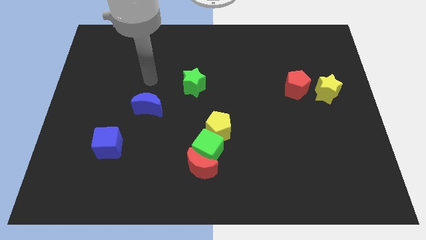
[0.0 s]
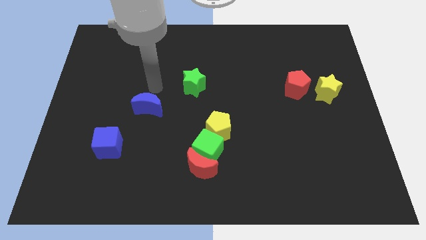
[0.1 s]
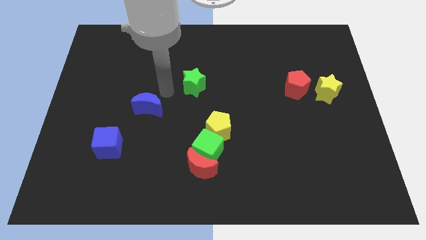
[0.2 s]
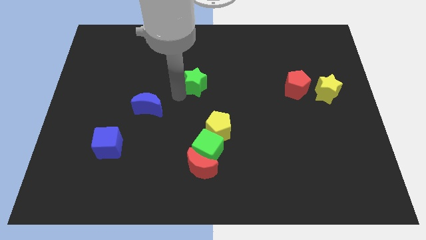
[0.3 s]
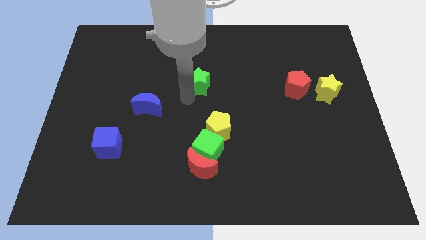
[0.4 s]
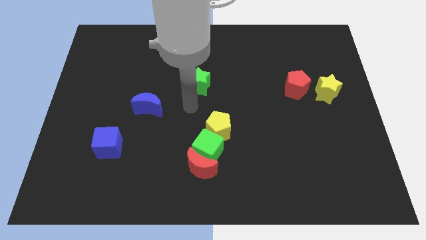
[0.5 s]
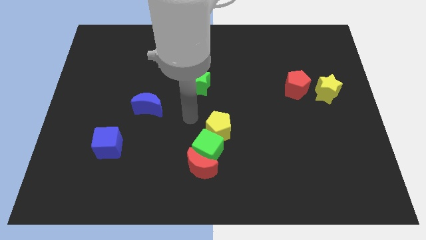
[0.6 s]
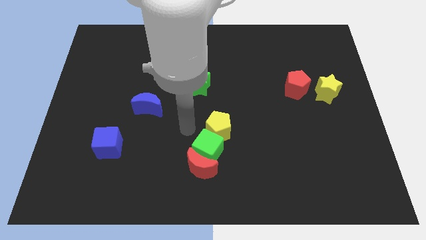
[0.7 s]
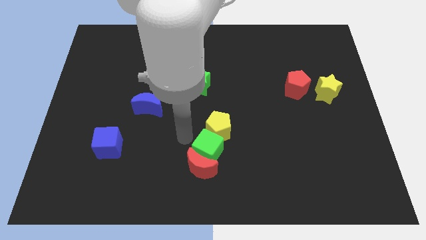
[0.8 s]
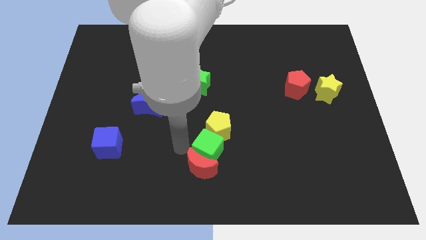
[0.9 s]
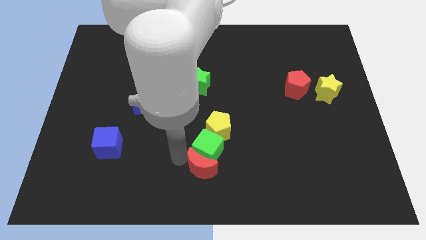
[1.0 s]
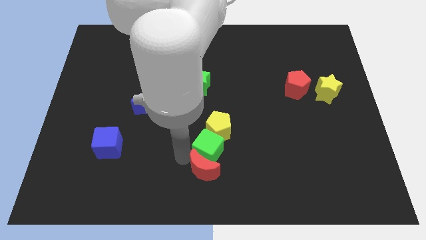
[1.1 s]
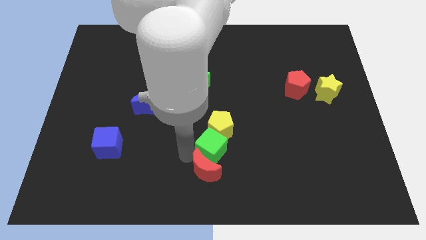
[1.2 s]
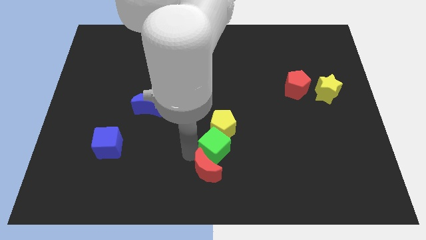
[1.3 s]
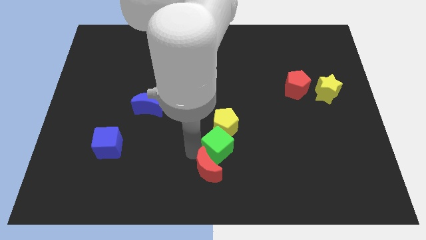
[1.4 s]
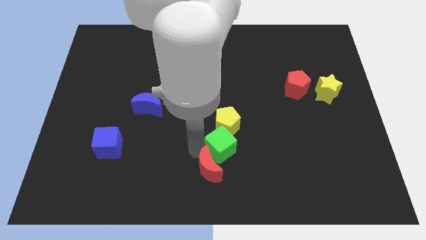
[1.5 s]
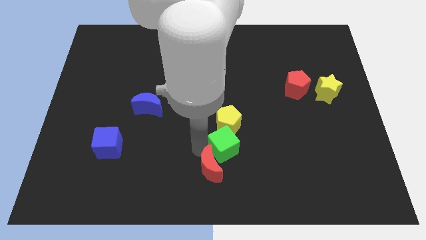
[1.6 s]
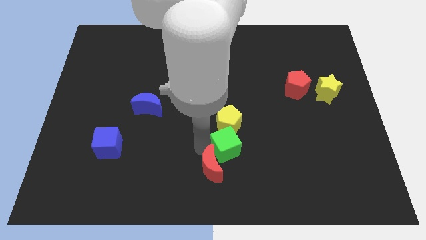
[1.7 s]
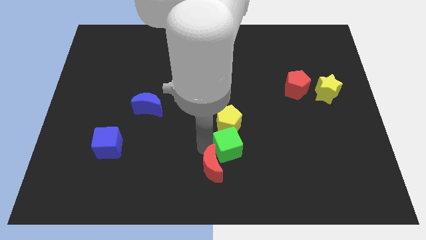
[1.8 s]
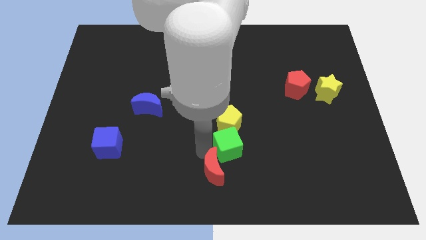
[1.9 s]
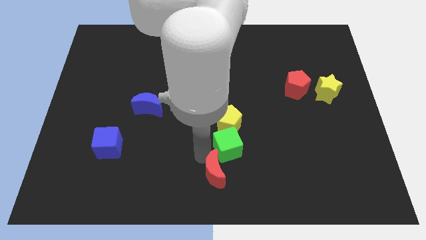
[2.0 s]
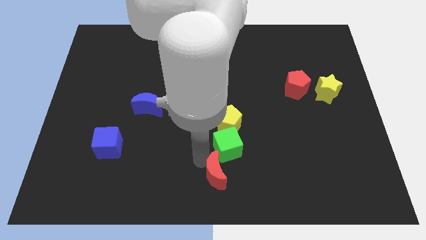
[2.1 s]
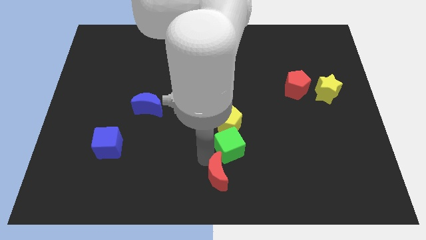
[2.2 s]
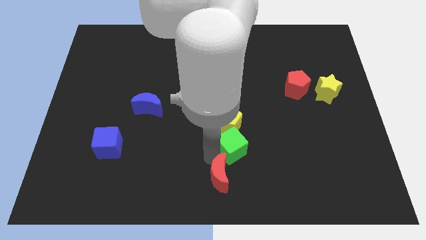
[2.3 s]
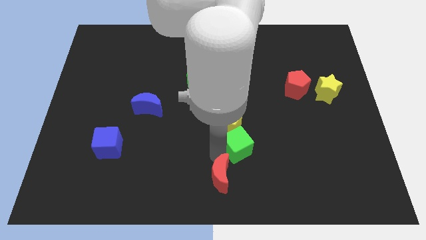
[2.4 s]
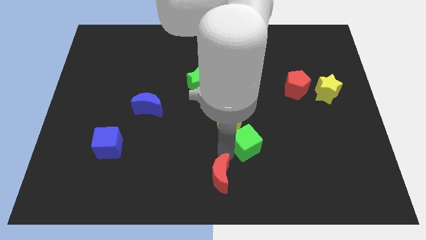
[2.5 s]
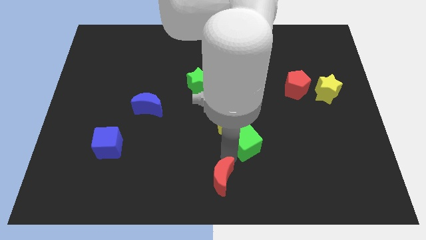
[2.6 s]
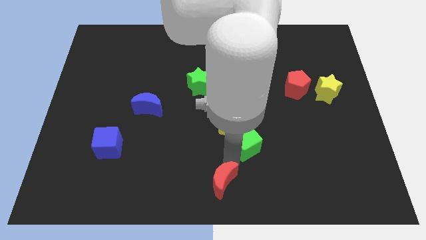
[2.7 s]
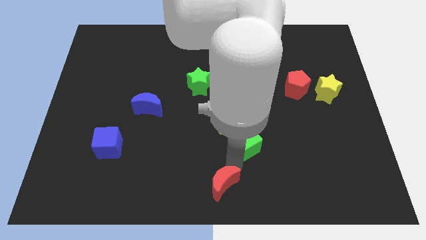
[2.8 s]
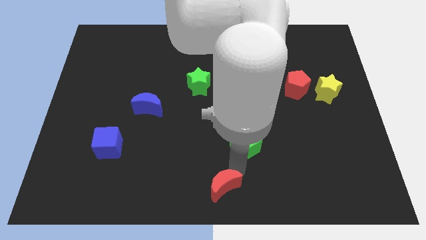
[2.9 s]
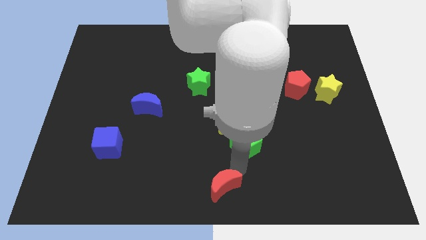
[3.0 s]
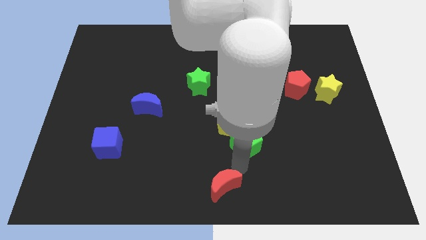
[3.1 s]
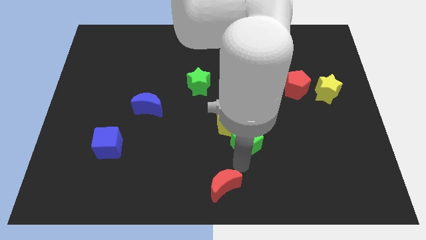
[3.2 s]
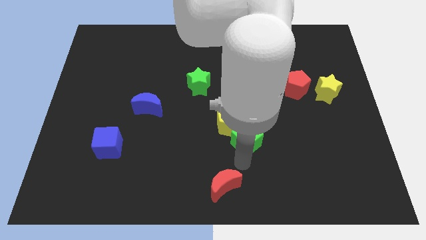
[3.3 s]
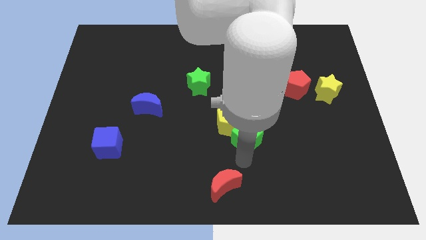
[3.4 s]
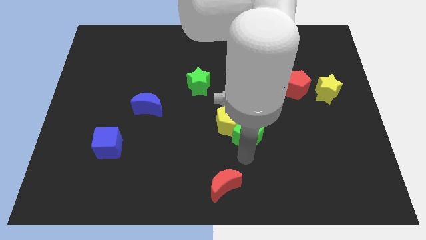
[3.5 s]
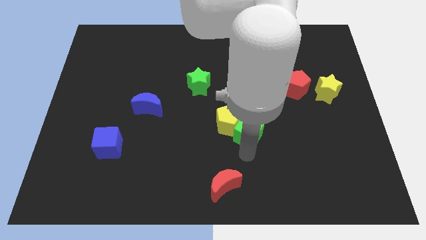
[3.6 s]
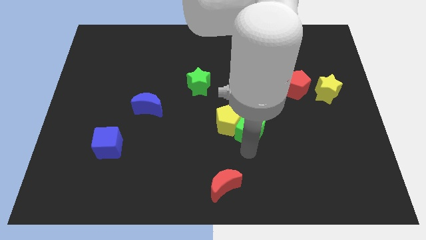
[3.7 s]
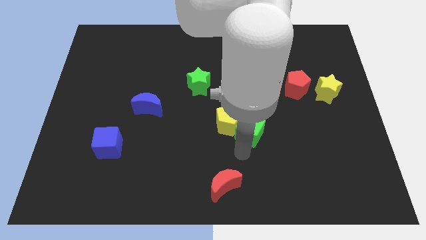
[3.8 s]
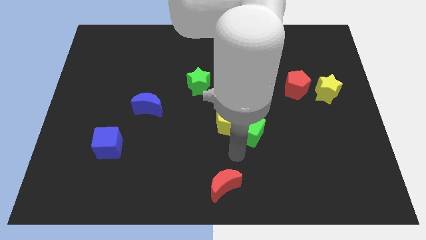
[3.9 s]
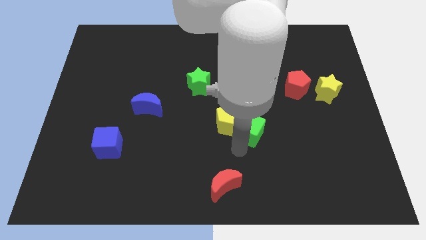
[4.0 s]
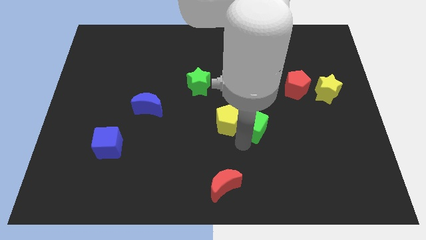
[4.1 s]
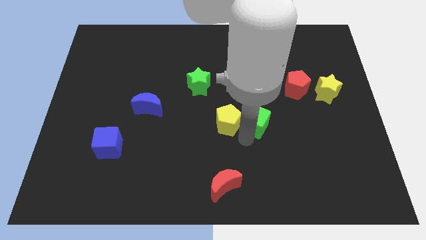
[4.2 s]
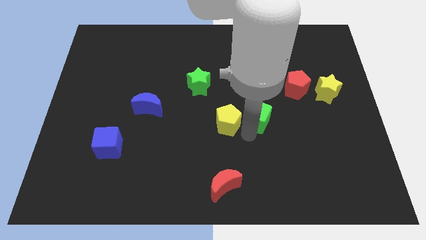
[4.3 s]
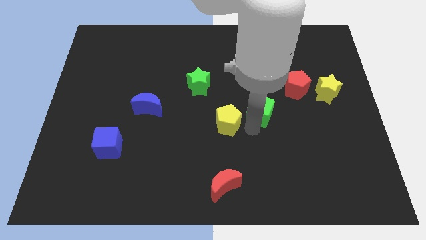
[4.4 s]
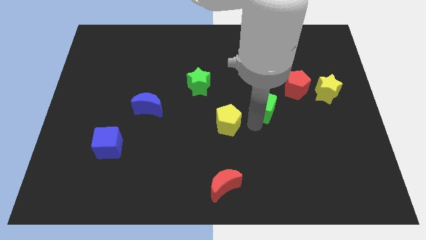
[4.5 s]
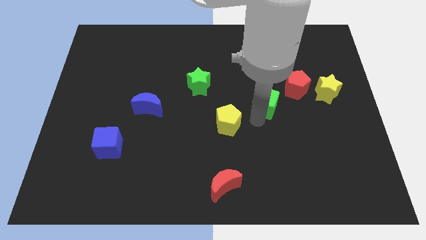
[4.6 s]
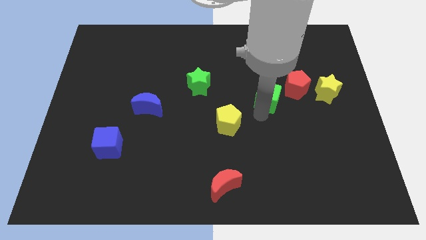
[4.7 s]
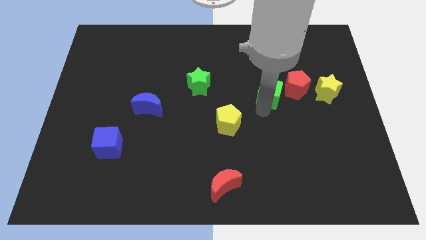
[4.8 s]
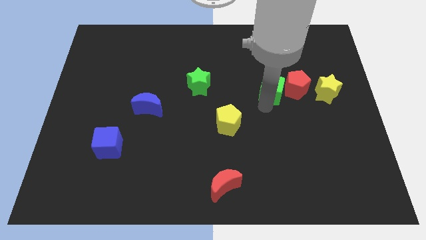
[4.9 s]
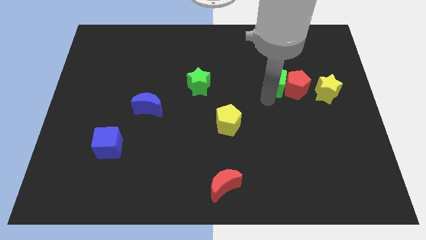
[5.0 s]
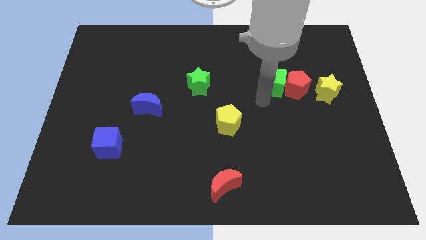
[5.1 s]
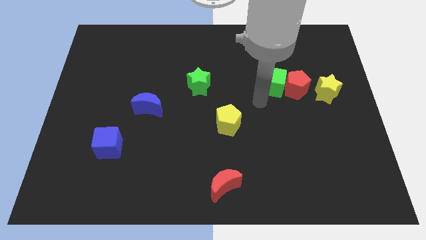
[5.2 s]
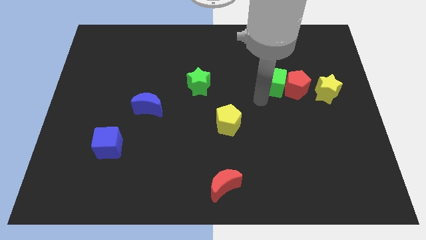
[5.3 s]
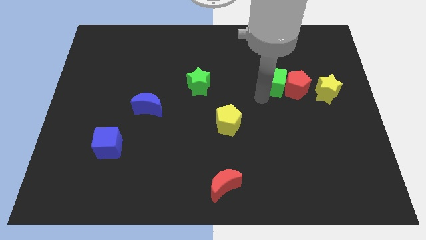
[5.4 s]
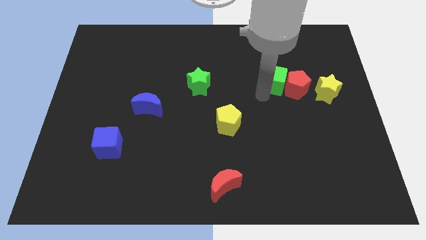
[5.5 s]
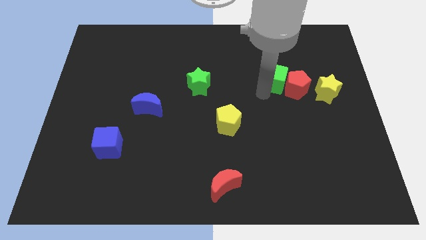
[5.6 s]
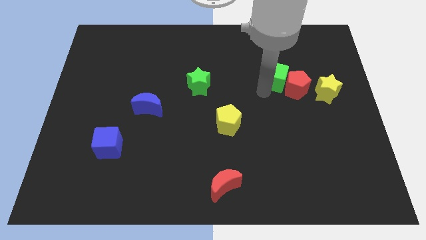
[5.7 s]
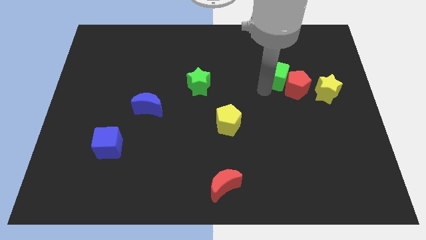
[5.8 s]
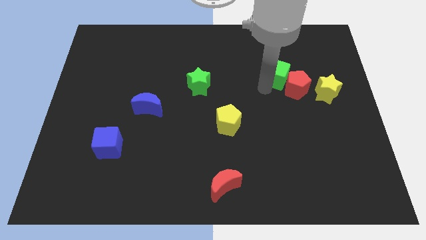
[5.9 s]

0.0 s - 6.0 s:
push the green cube to the top side of the red pentagon

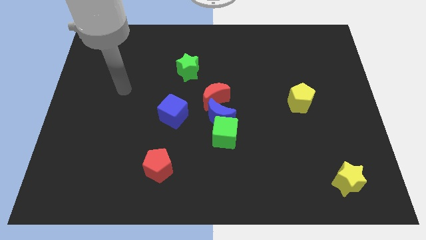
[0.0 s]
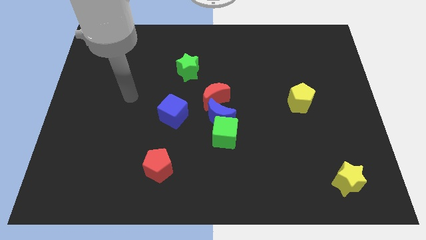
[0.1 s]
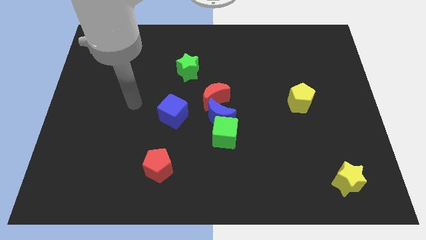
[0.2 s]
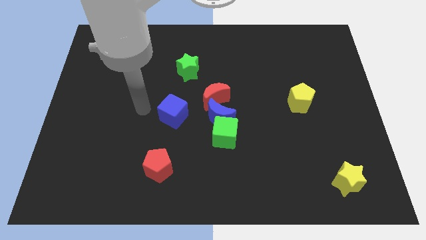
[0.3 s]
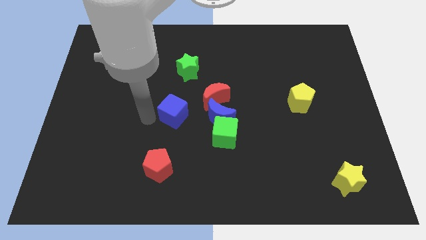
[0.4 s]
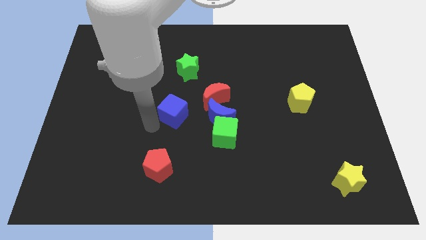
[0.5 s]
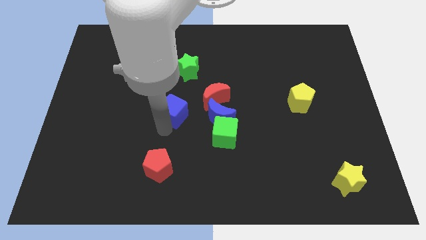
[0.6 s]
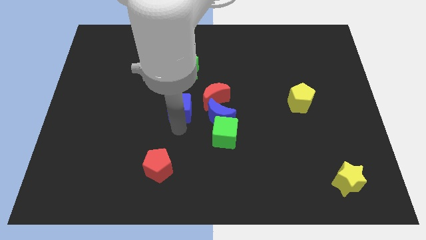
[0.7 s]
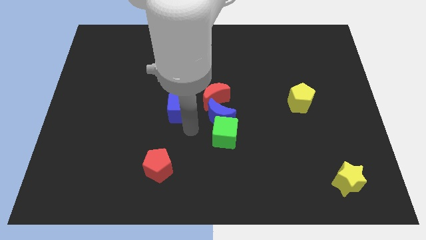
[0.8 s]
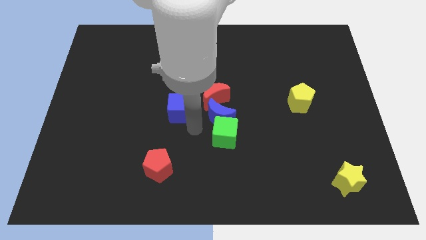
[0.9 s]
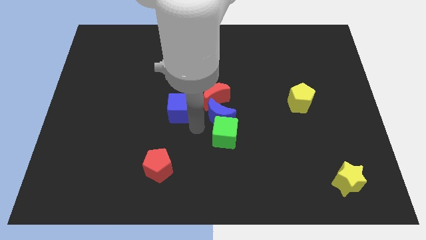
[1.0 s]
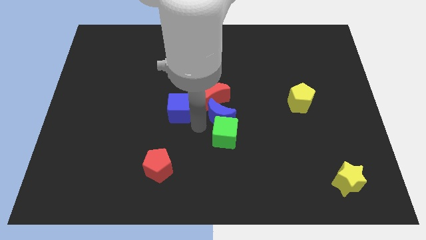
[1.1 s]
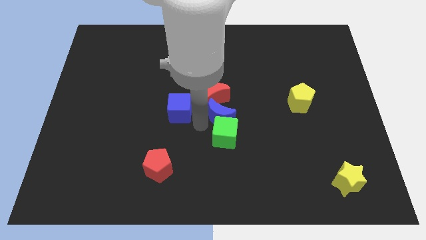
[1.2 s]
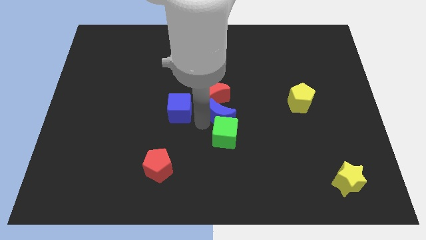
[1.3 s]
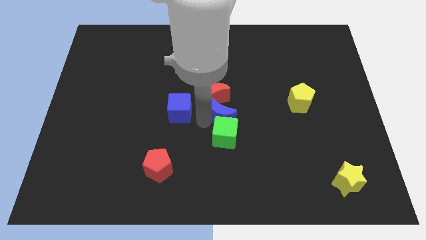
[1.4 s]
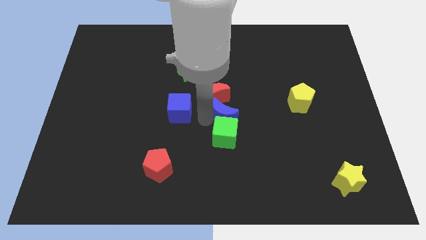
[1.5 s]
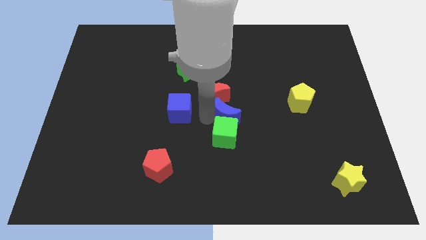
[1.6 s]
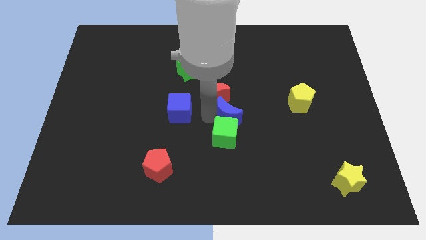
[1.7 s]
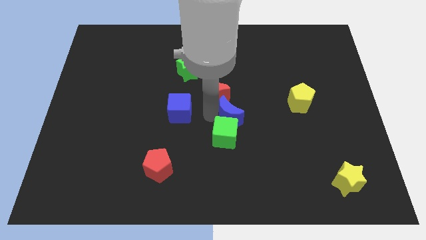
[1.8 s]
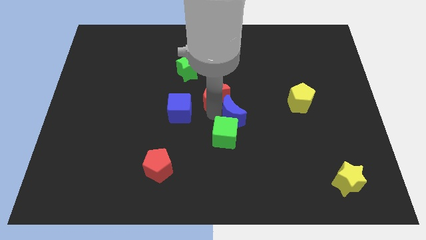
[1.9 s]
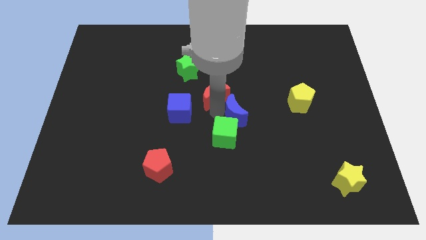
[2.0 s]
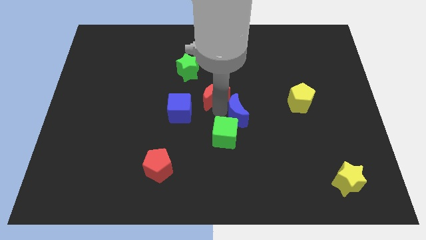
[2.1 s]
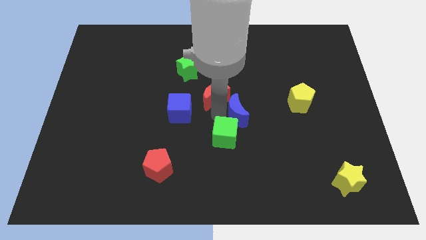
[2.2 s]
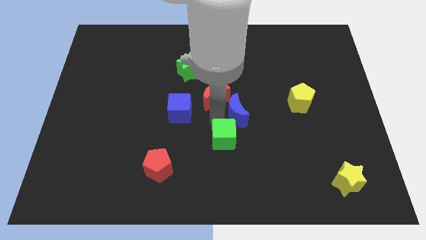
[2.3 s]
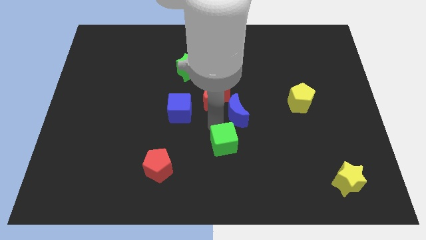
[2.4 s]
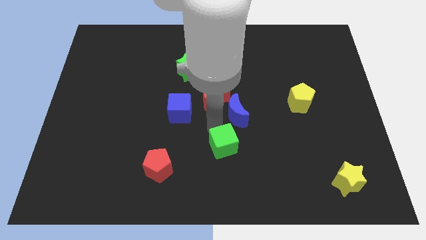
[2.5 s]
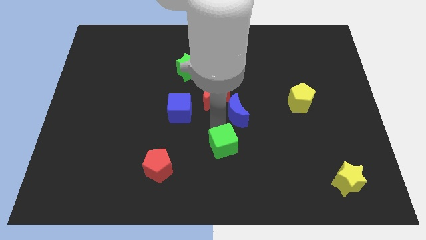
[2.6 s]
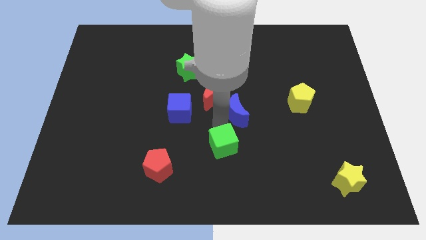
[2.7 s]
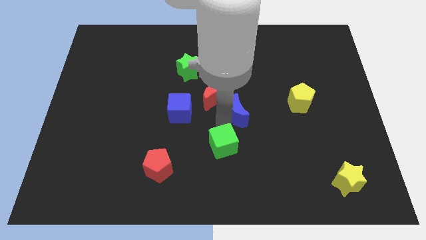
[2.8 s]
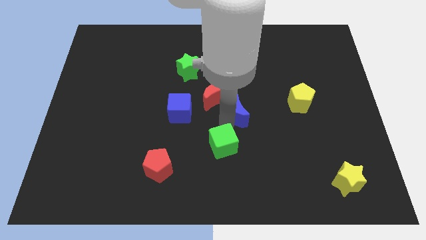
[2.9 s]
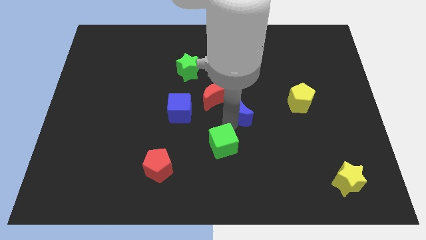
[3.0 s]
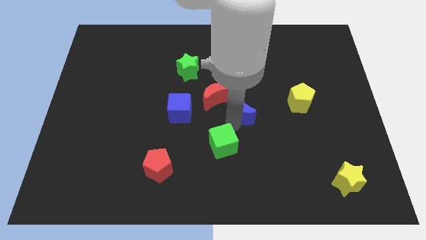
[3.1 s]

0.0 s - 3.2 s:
push the blue moon left of the yellow pentagon
